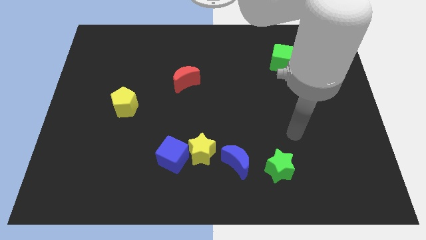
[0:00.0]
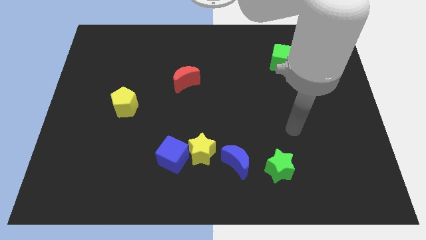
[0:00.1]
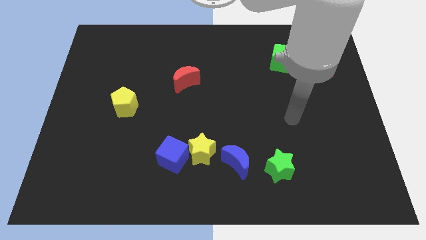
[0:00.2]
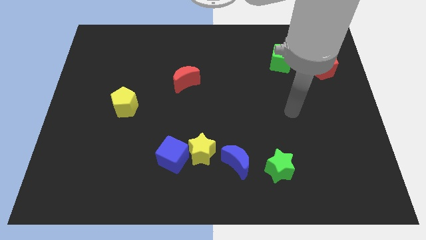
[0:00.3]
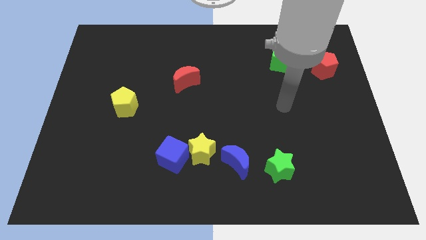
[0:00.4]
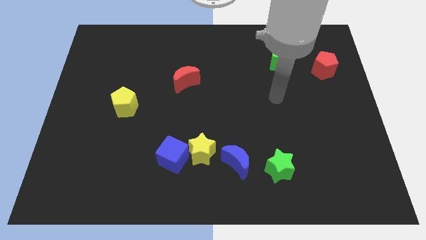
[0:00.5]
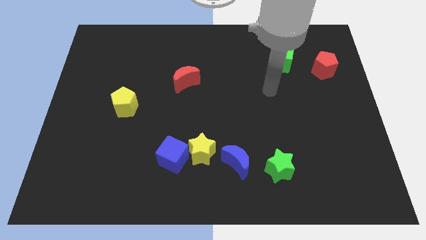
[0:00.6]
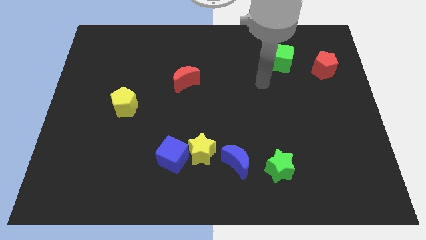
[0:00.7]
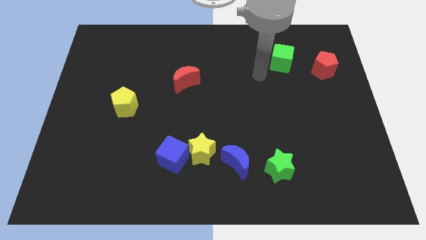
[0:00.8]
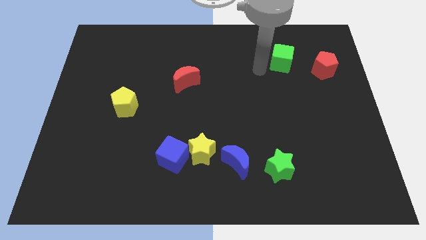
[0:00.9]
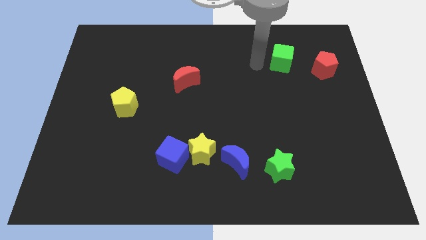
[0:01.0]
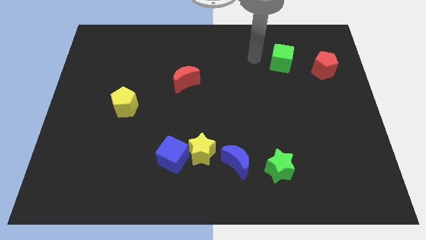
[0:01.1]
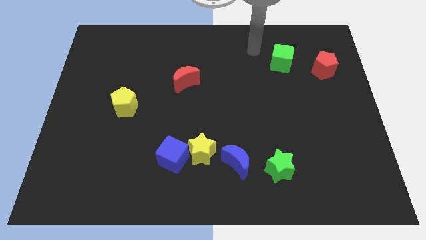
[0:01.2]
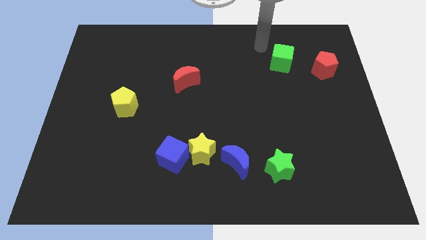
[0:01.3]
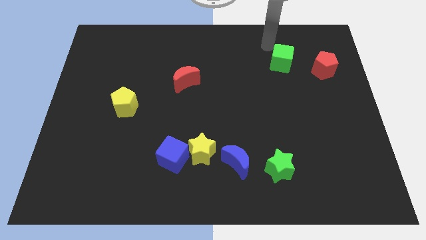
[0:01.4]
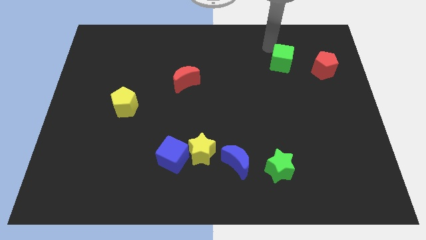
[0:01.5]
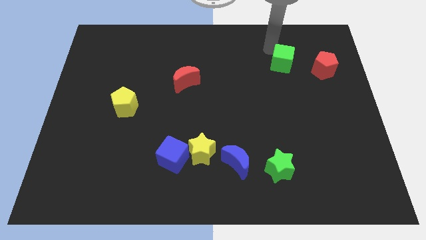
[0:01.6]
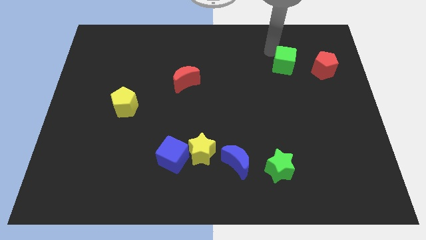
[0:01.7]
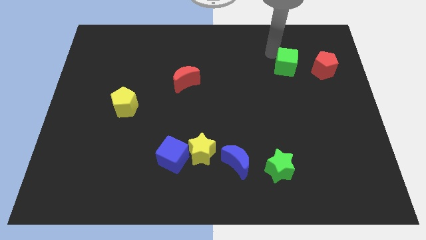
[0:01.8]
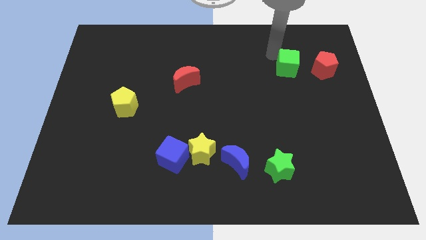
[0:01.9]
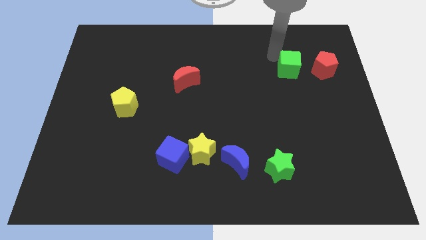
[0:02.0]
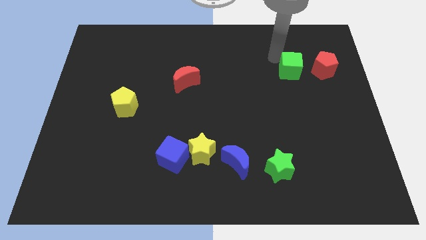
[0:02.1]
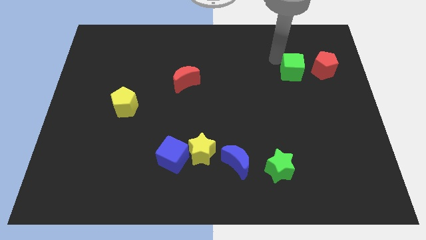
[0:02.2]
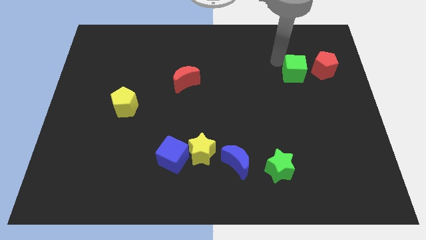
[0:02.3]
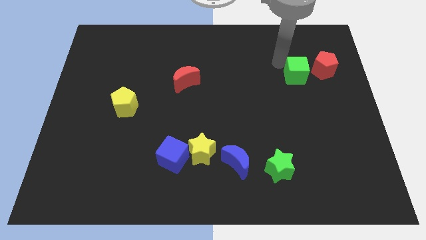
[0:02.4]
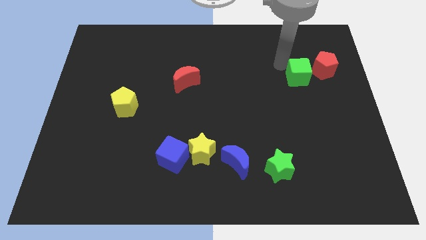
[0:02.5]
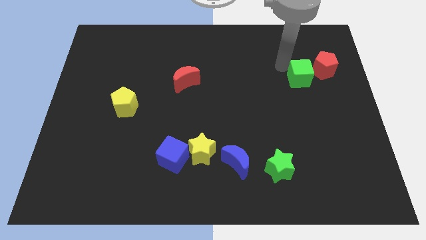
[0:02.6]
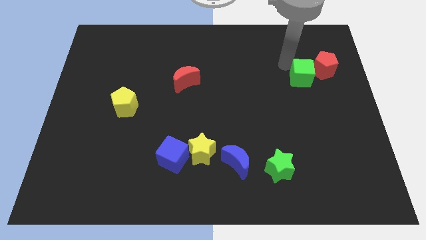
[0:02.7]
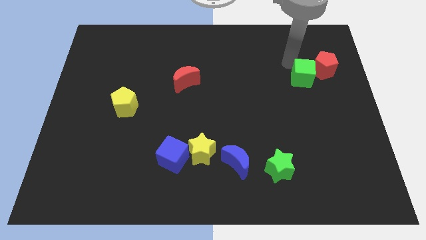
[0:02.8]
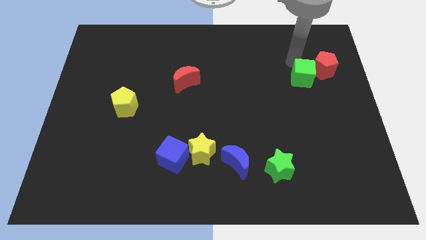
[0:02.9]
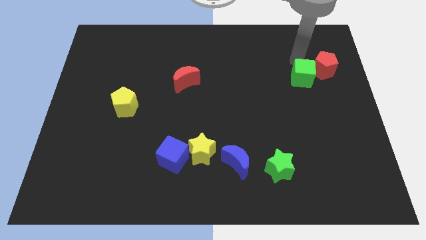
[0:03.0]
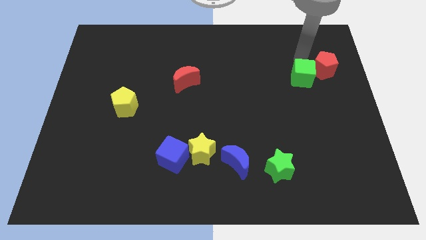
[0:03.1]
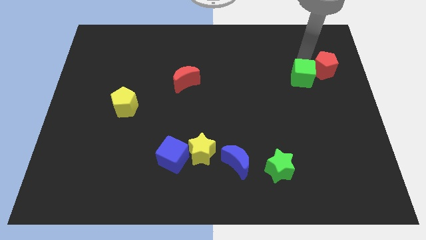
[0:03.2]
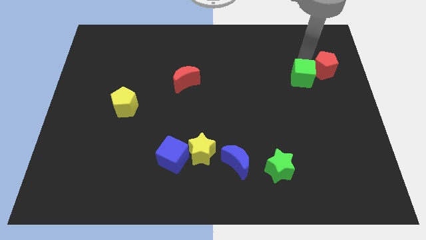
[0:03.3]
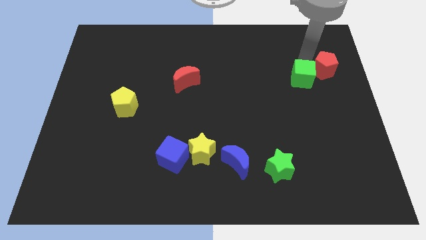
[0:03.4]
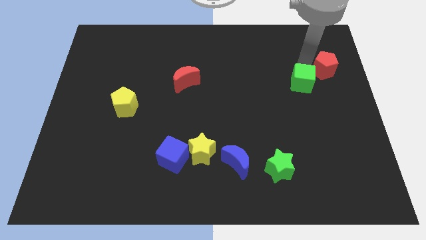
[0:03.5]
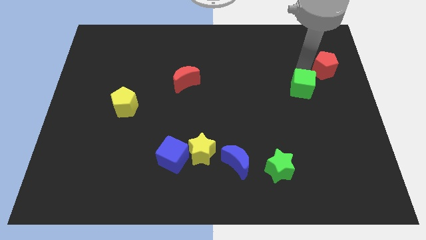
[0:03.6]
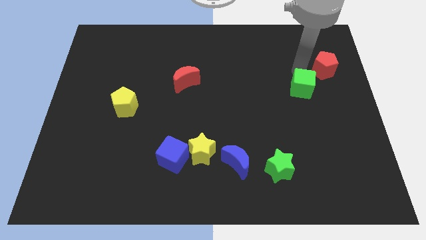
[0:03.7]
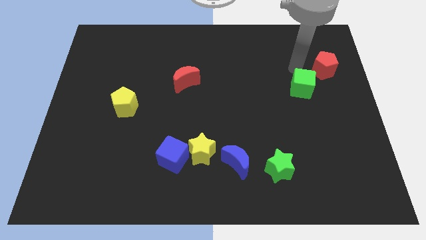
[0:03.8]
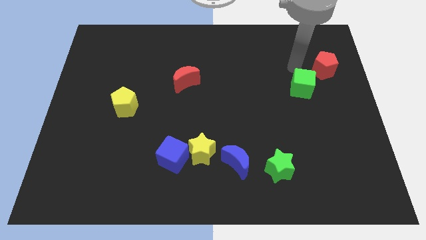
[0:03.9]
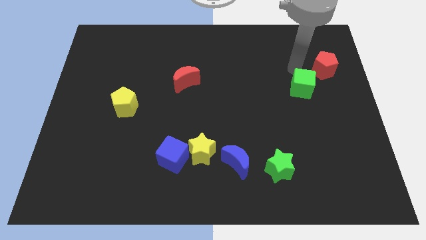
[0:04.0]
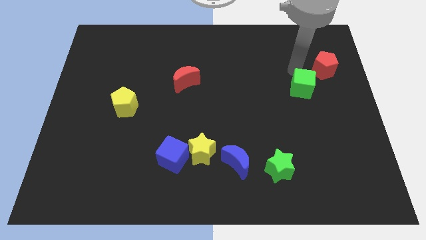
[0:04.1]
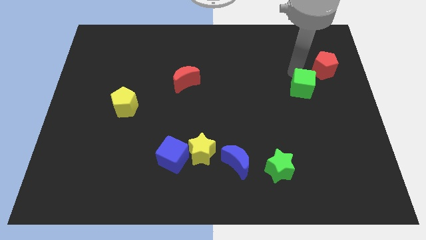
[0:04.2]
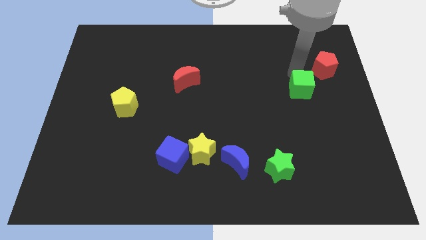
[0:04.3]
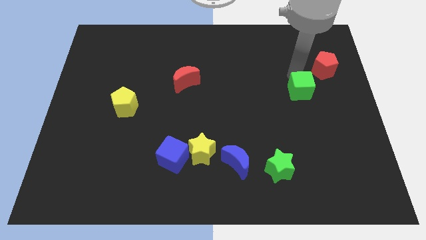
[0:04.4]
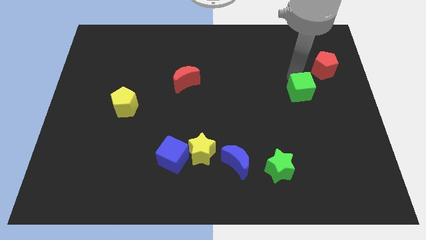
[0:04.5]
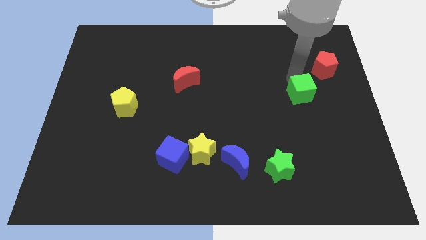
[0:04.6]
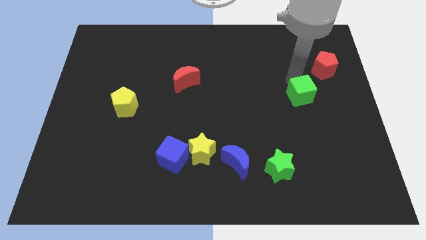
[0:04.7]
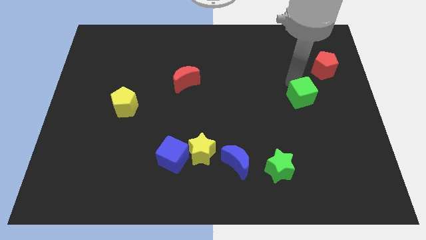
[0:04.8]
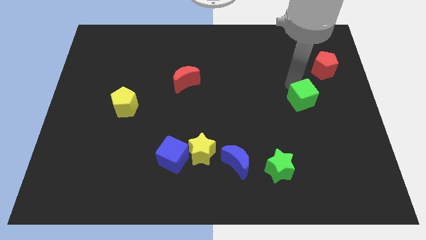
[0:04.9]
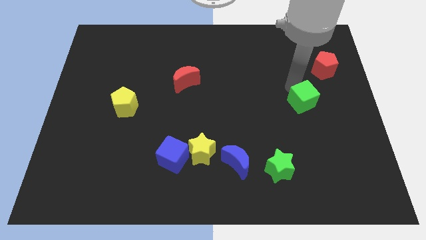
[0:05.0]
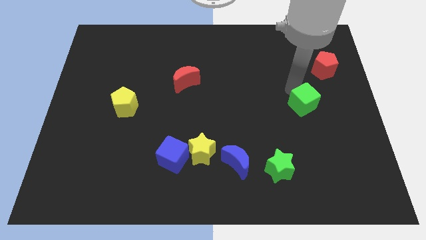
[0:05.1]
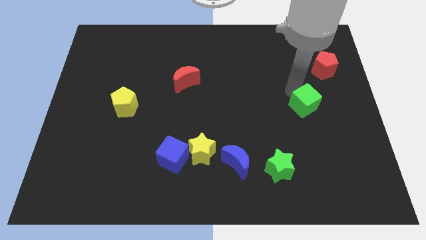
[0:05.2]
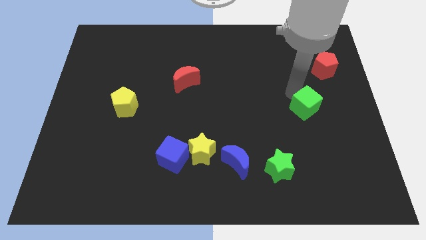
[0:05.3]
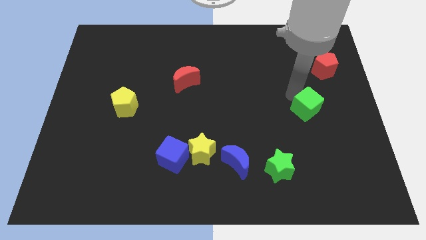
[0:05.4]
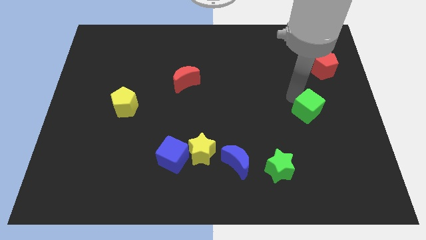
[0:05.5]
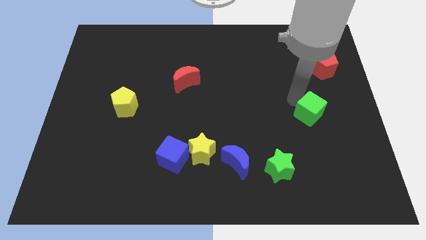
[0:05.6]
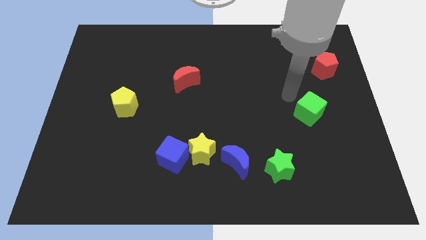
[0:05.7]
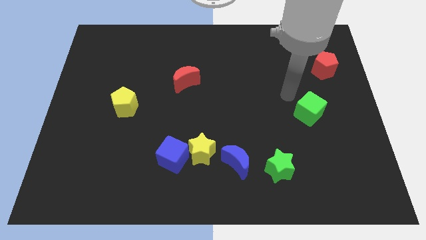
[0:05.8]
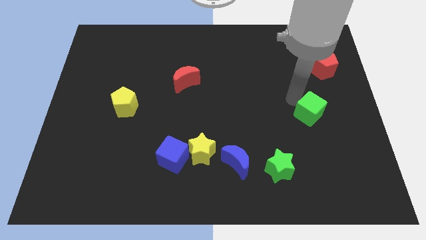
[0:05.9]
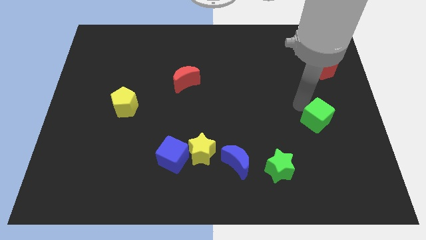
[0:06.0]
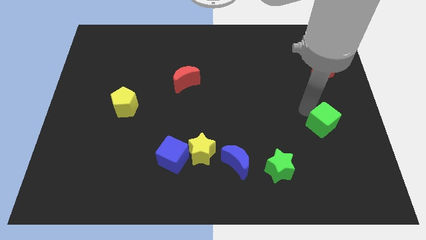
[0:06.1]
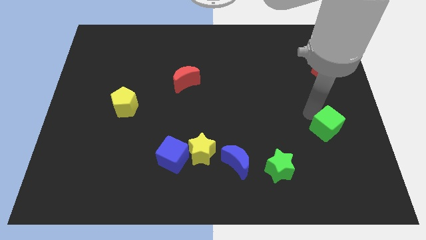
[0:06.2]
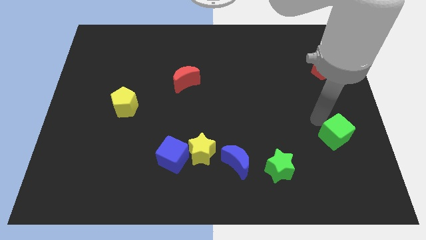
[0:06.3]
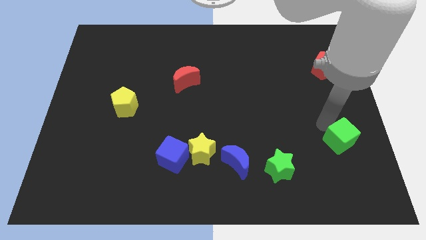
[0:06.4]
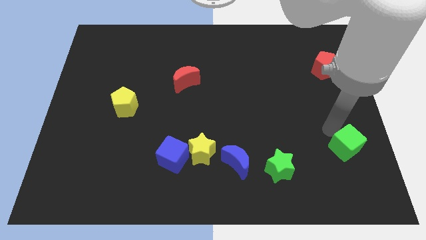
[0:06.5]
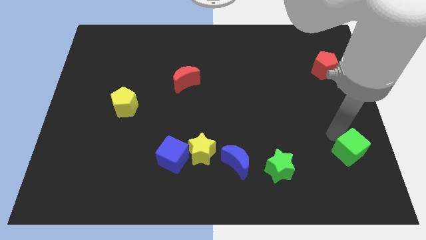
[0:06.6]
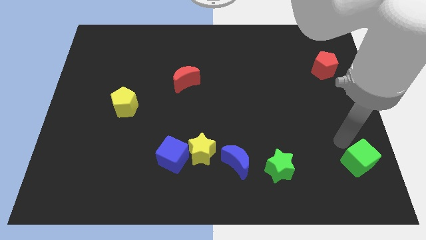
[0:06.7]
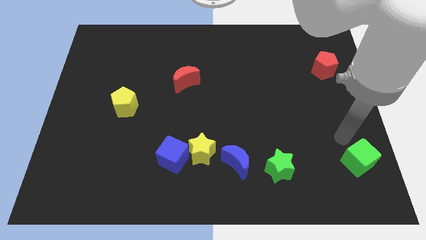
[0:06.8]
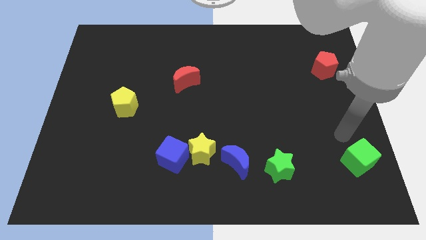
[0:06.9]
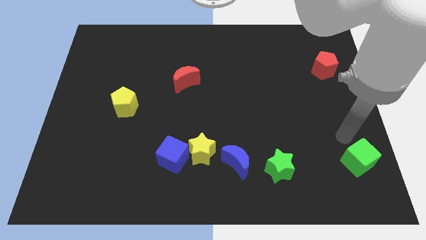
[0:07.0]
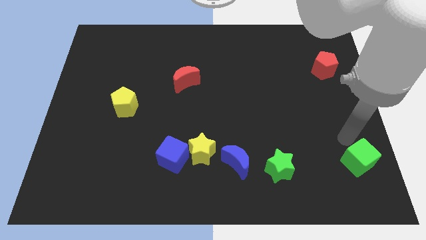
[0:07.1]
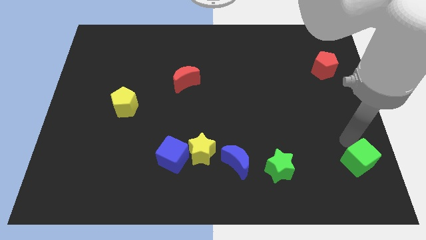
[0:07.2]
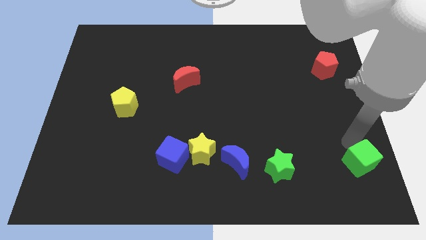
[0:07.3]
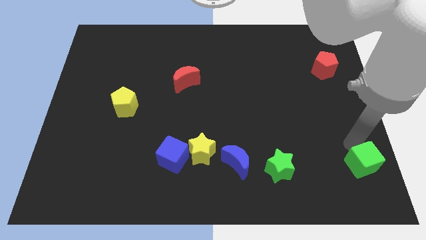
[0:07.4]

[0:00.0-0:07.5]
slide the green cube to the bottom right of the board
